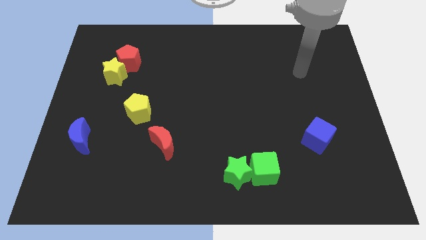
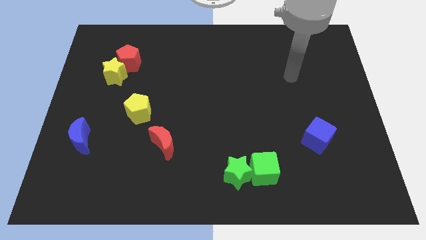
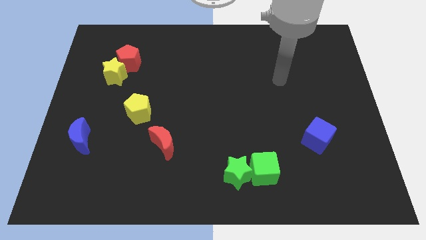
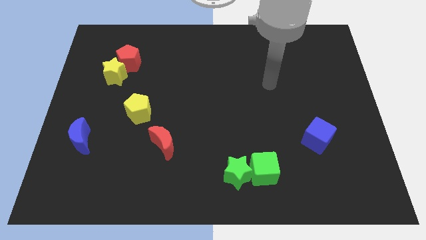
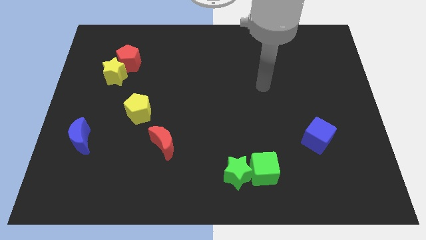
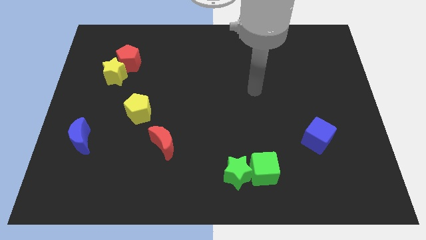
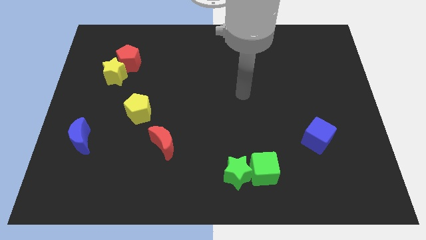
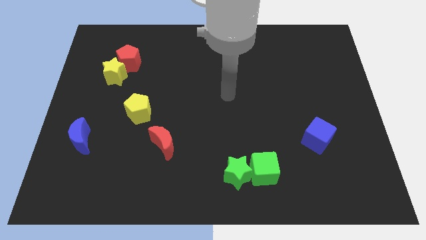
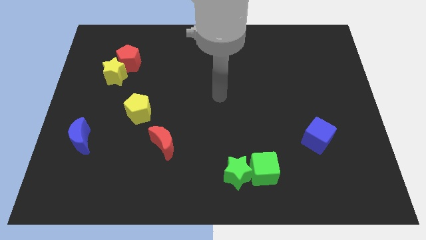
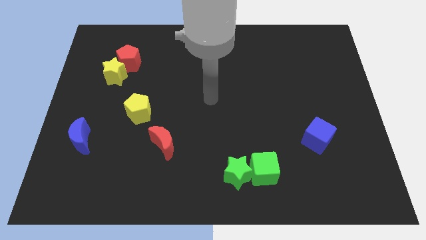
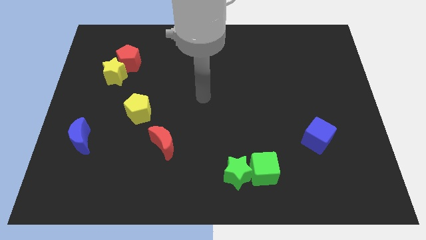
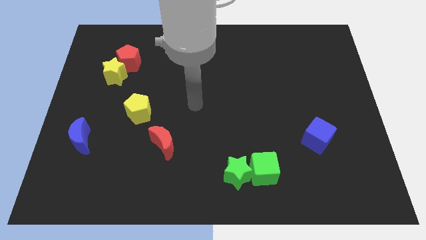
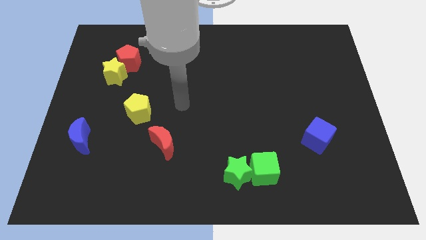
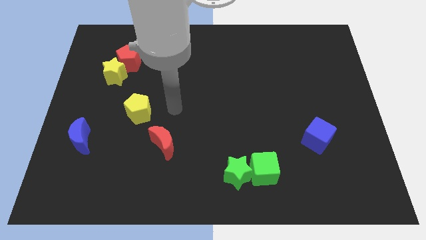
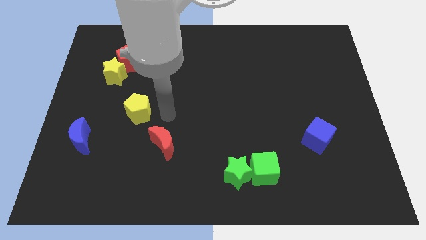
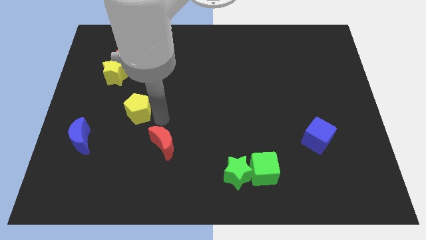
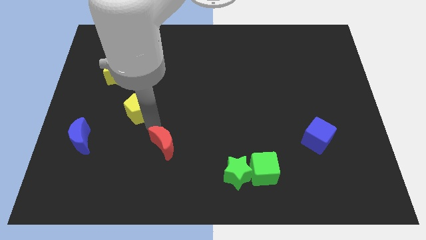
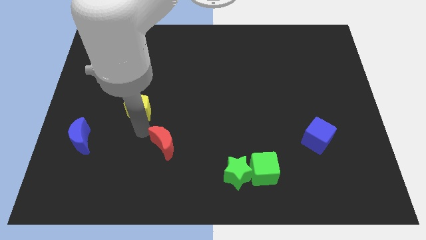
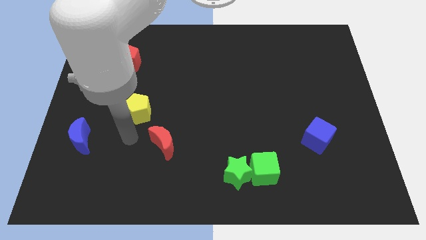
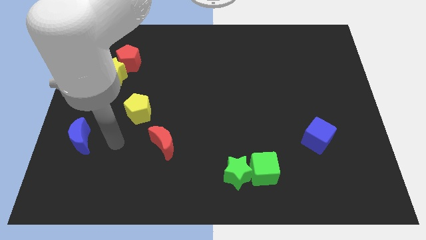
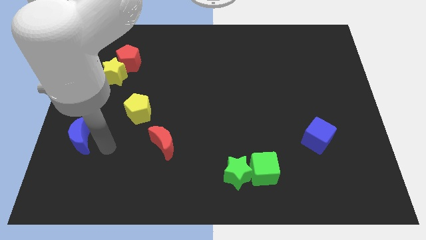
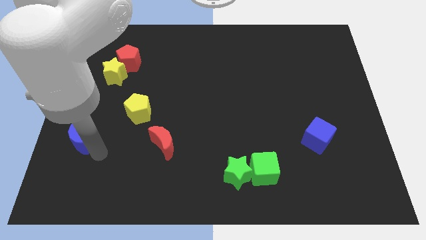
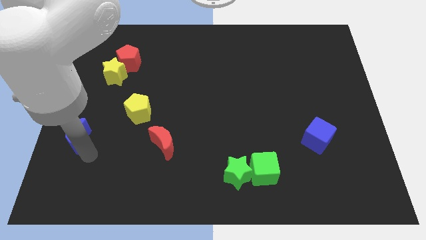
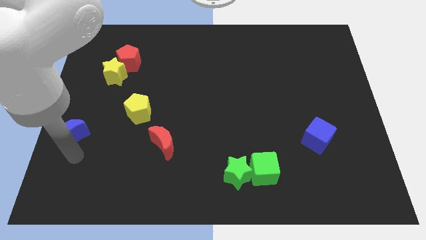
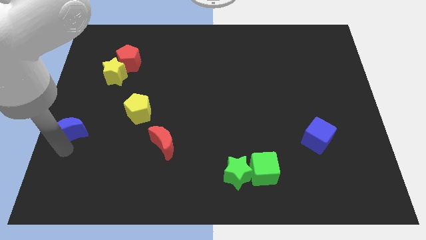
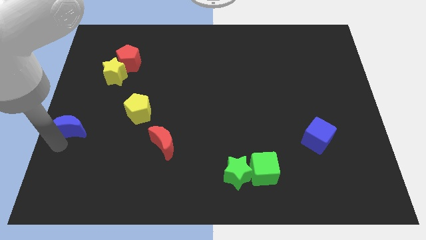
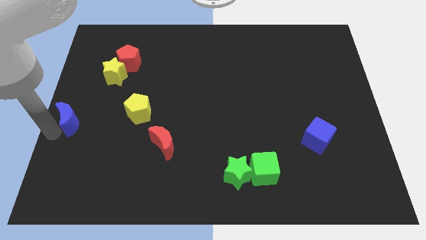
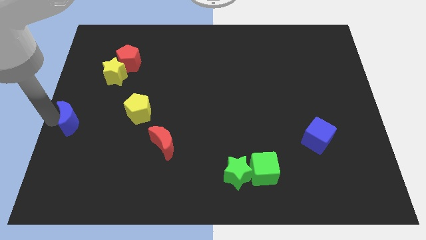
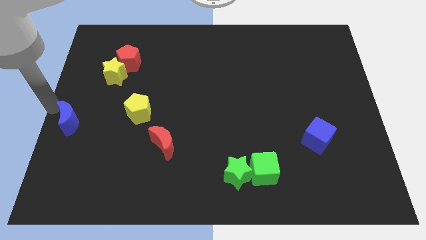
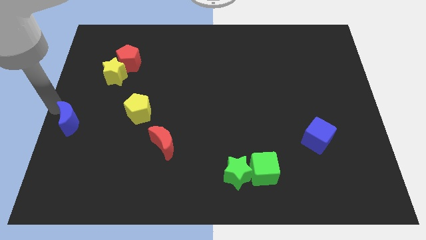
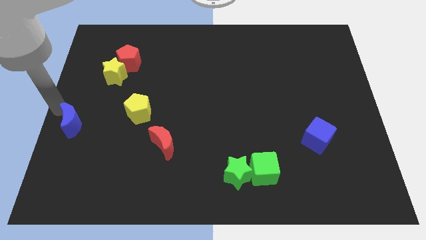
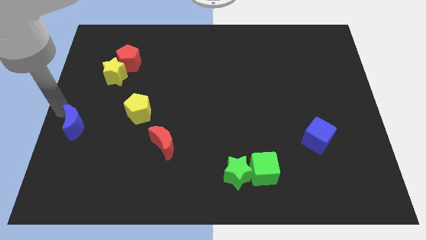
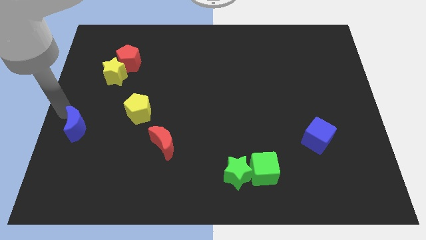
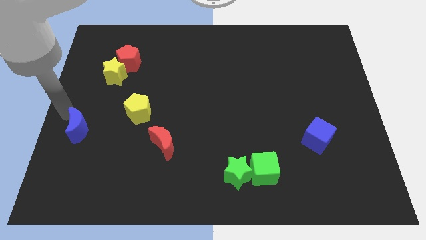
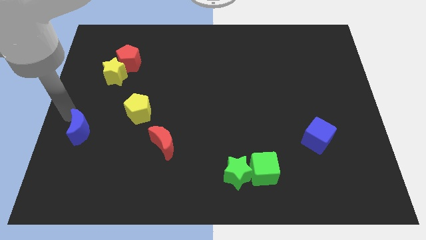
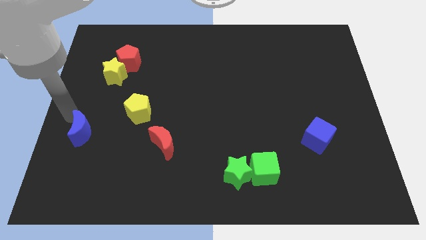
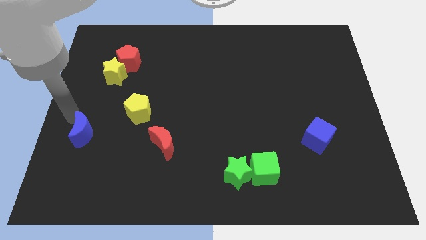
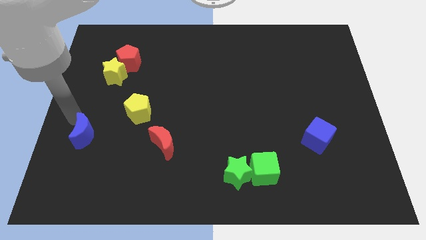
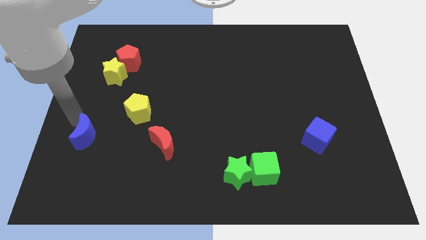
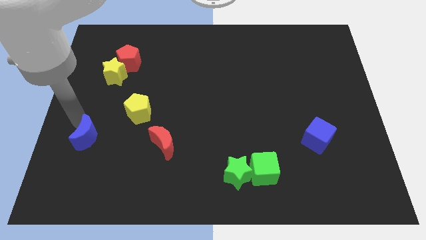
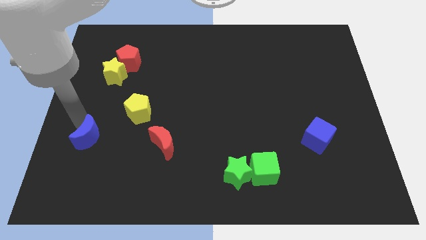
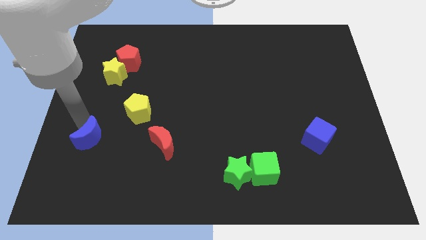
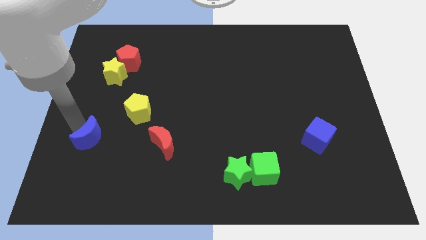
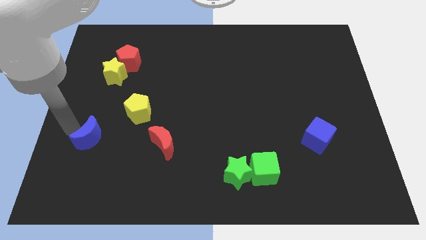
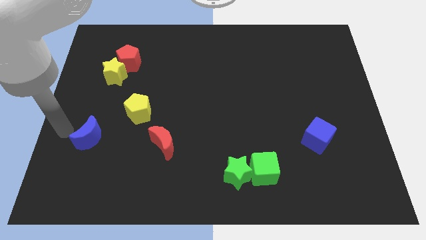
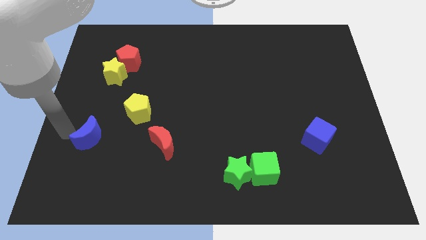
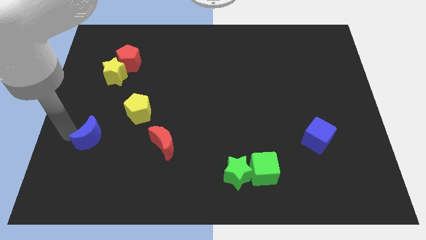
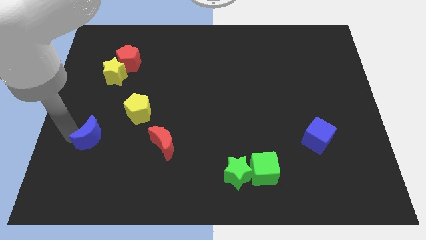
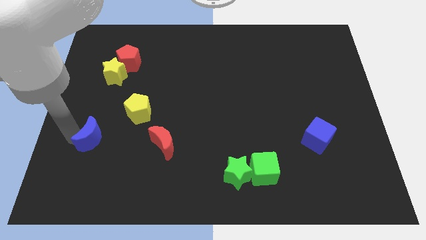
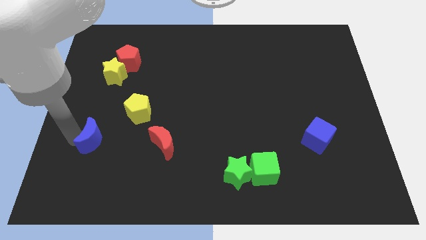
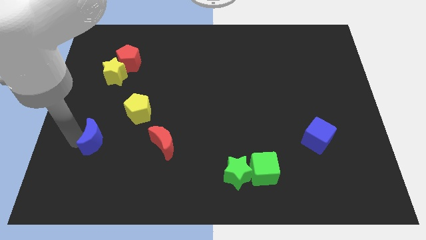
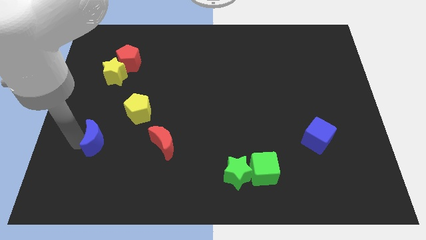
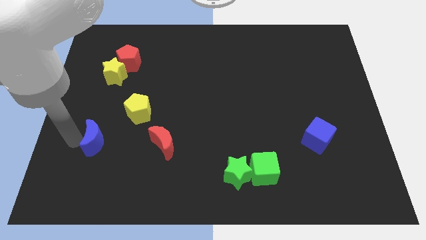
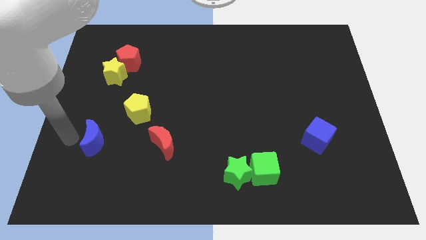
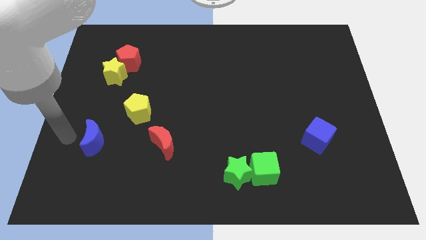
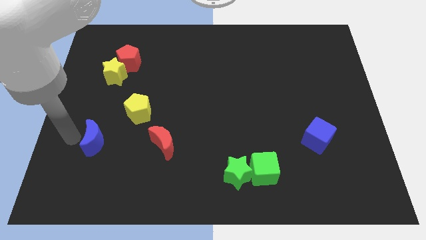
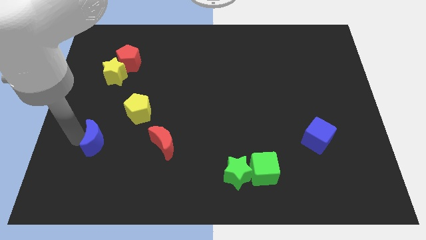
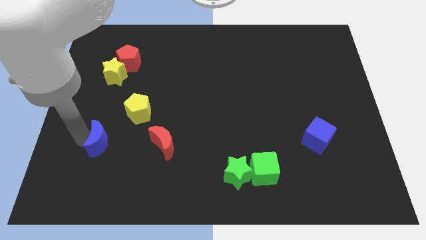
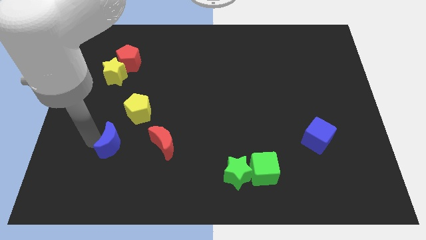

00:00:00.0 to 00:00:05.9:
put the blue moon to the bottom of the yellow pentagon

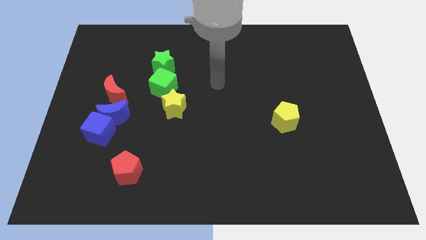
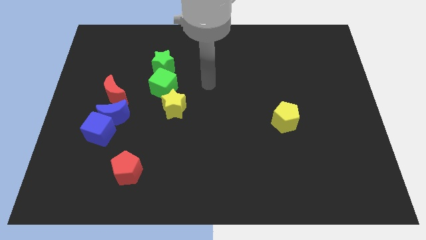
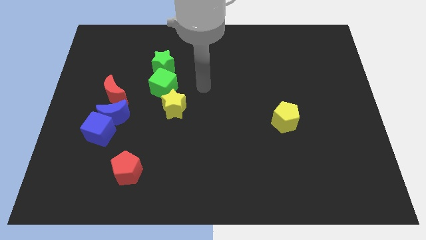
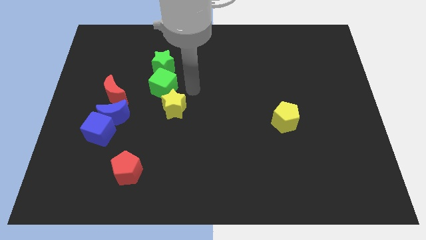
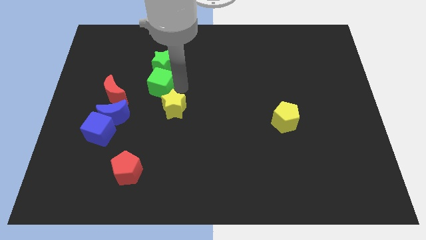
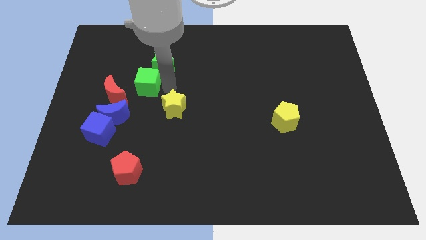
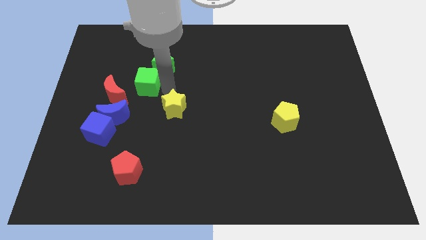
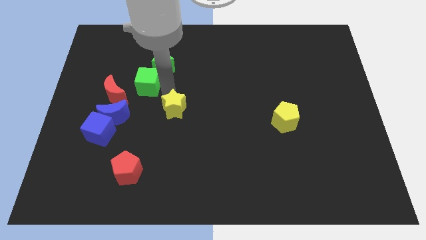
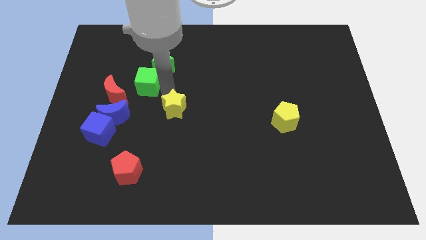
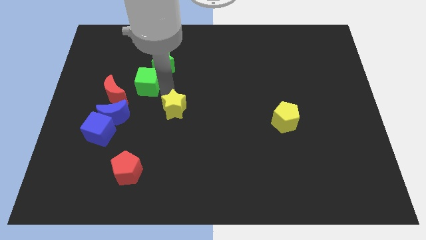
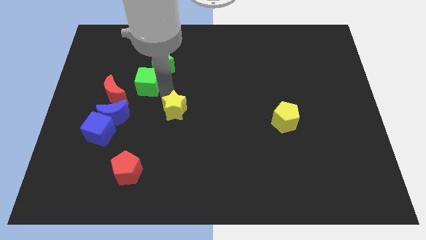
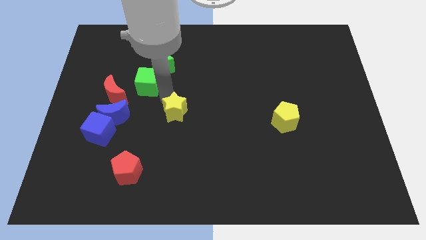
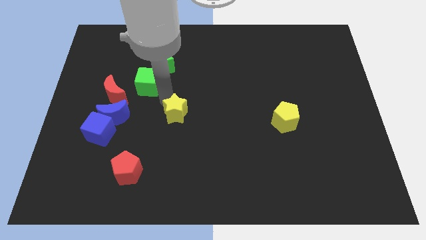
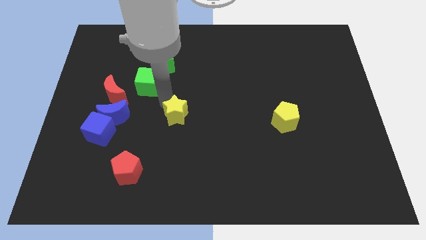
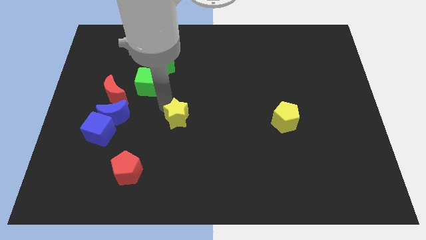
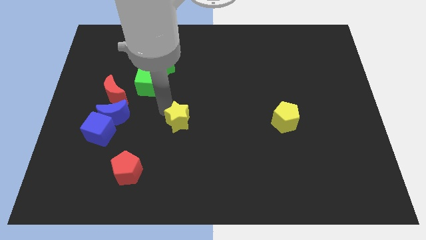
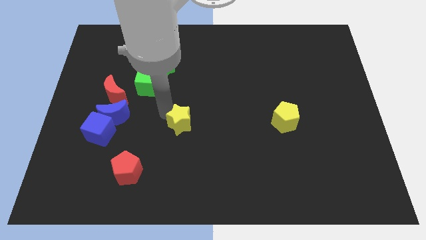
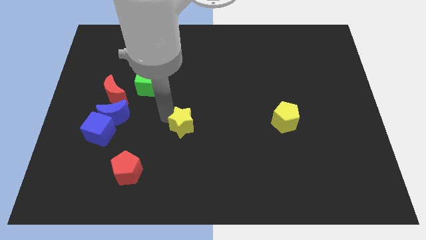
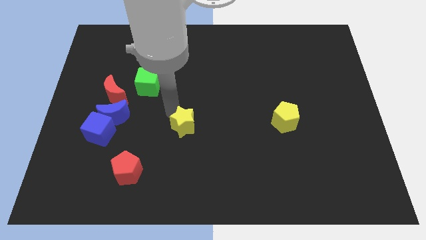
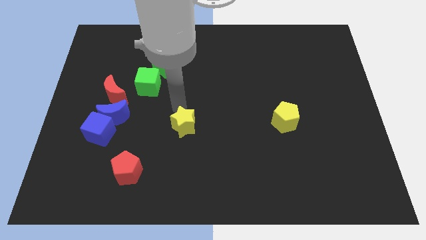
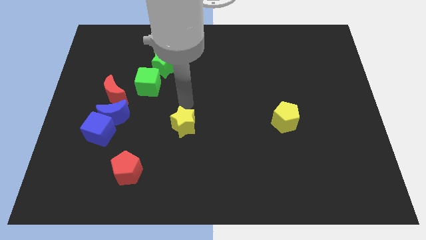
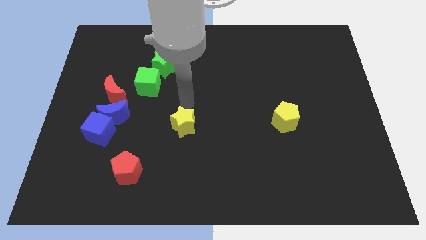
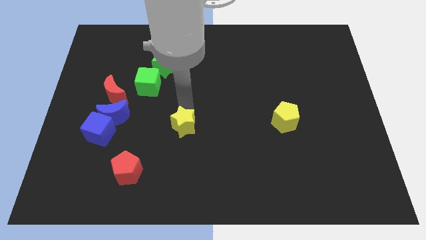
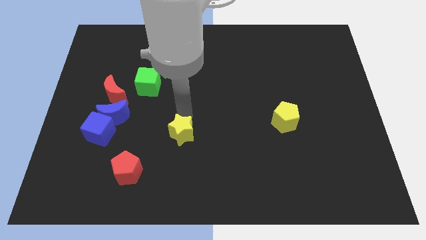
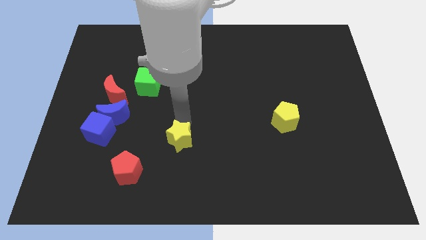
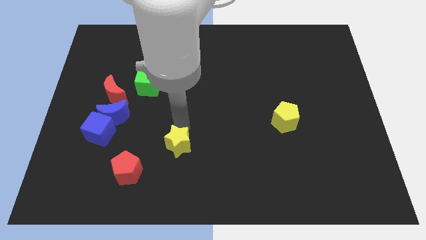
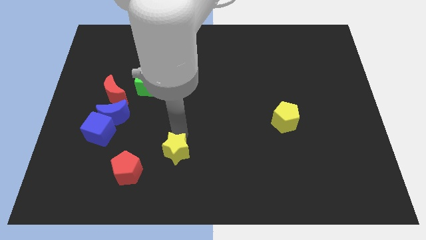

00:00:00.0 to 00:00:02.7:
slide the yellow star right of the red pentagon
